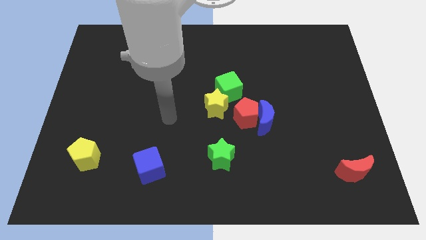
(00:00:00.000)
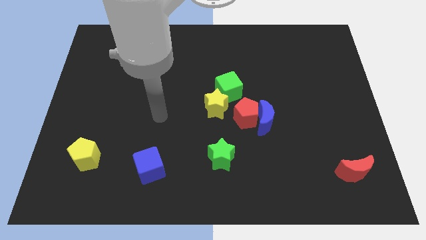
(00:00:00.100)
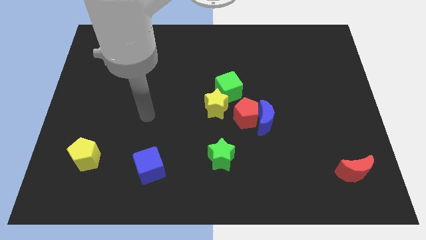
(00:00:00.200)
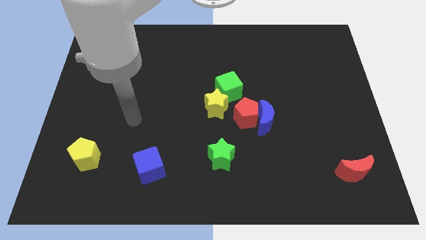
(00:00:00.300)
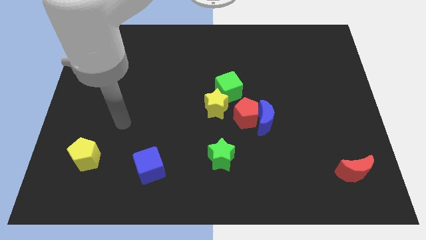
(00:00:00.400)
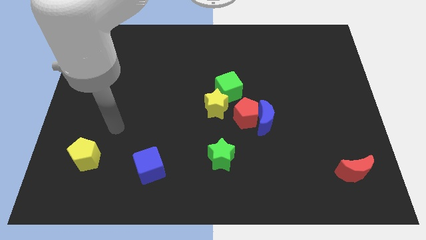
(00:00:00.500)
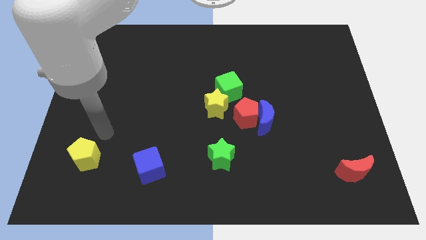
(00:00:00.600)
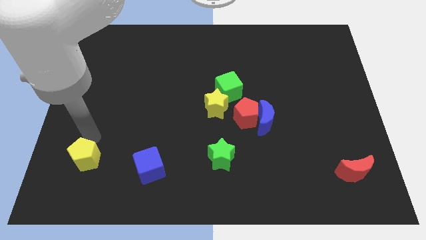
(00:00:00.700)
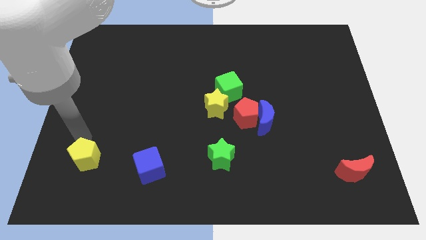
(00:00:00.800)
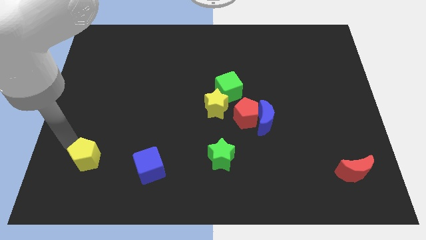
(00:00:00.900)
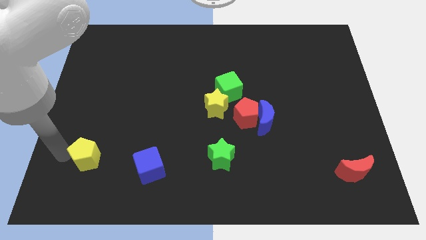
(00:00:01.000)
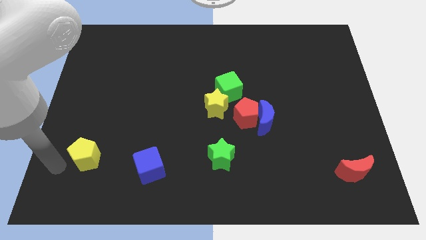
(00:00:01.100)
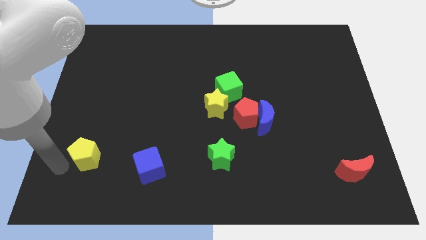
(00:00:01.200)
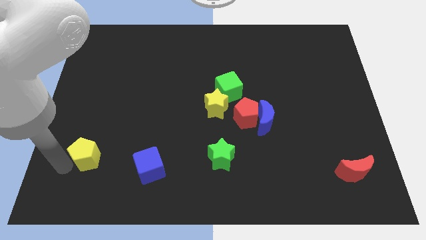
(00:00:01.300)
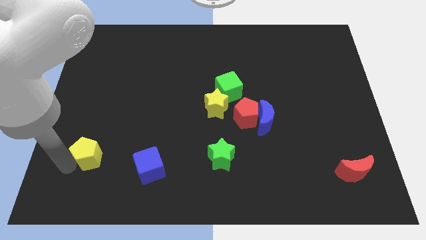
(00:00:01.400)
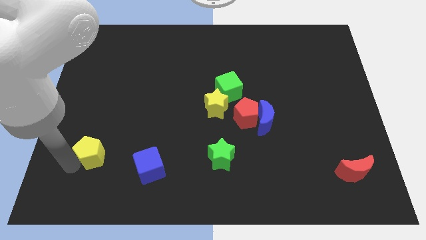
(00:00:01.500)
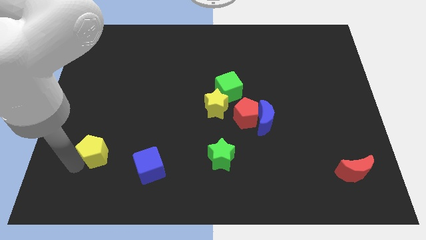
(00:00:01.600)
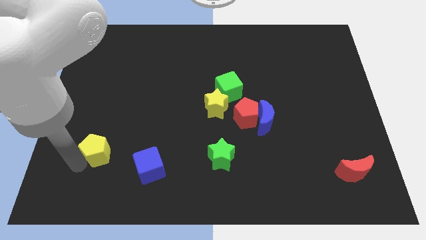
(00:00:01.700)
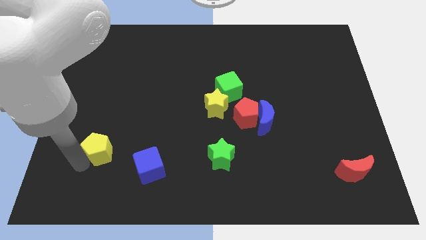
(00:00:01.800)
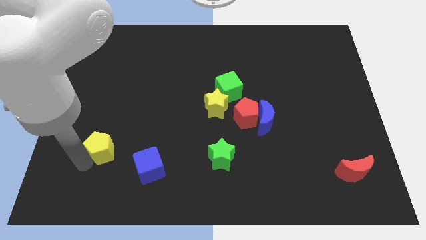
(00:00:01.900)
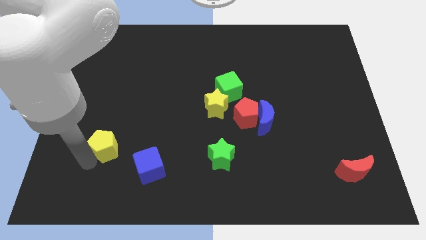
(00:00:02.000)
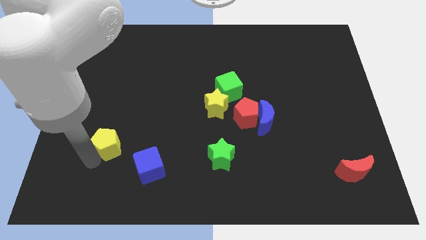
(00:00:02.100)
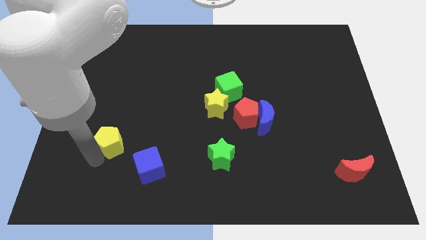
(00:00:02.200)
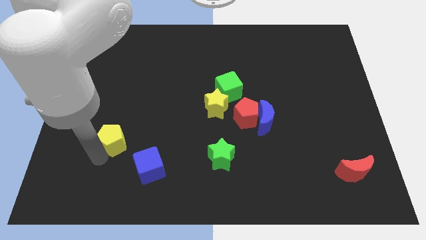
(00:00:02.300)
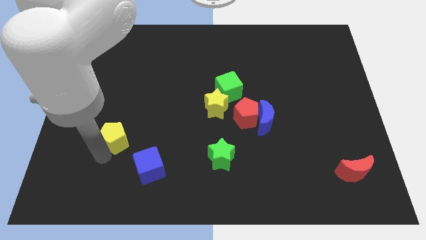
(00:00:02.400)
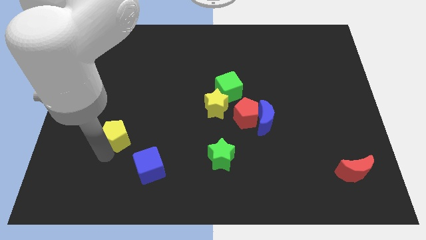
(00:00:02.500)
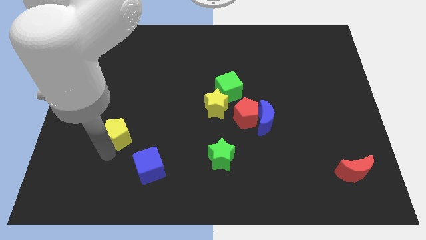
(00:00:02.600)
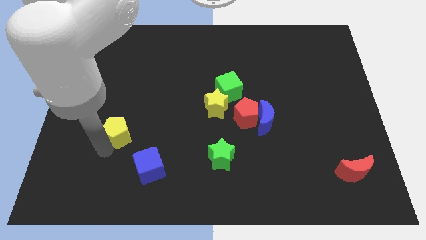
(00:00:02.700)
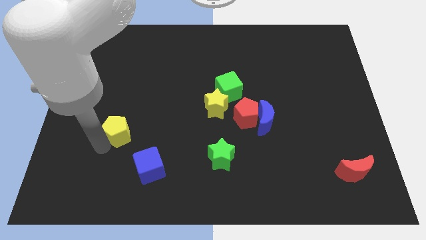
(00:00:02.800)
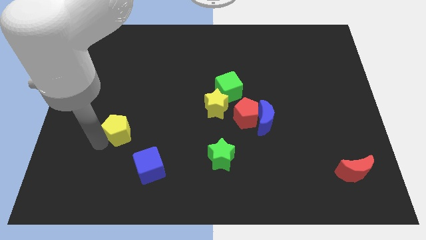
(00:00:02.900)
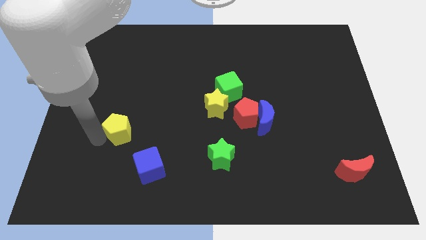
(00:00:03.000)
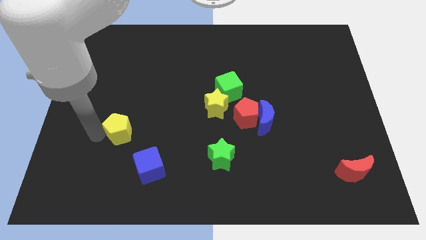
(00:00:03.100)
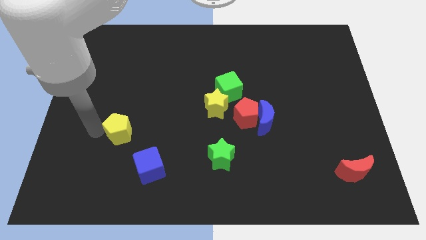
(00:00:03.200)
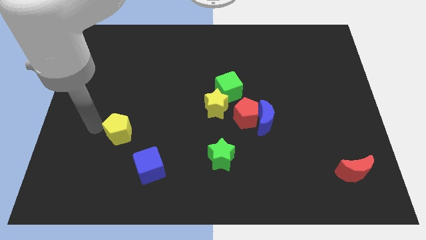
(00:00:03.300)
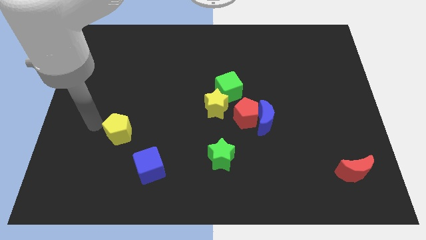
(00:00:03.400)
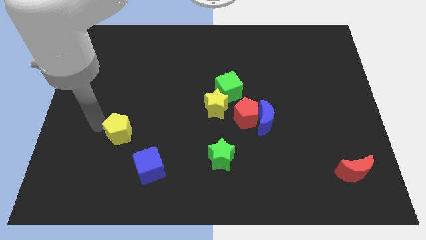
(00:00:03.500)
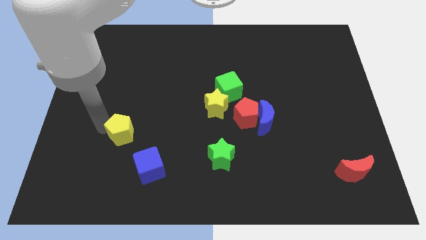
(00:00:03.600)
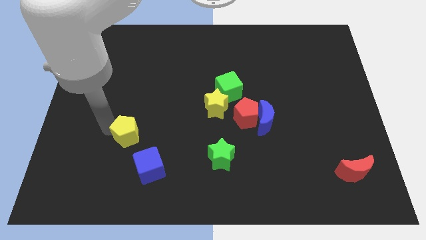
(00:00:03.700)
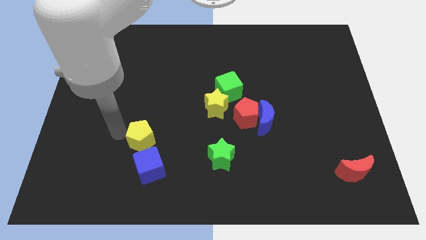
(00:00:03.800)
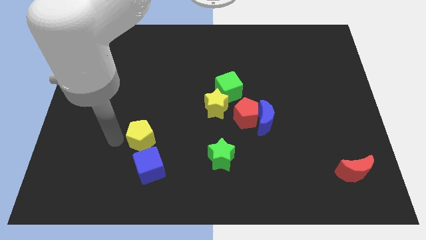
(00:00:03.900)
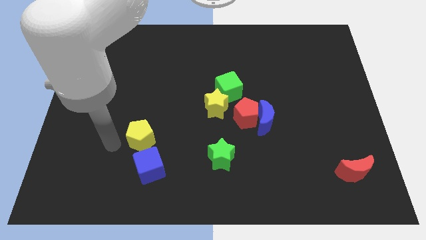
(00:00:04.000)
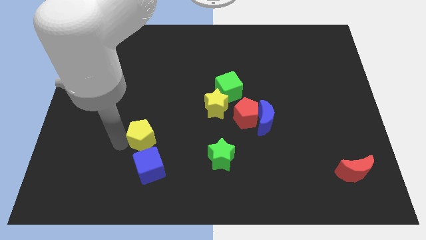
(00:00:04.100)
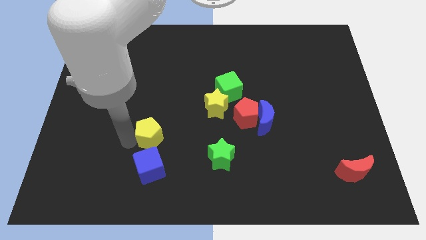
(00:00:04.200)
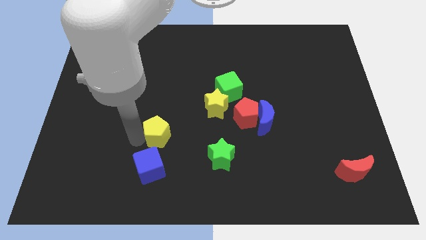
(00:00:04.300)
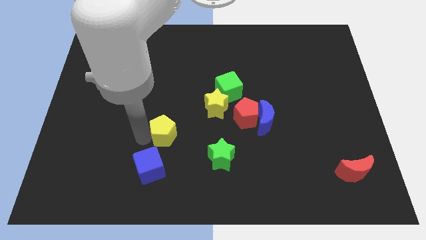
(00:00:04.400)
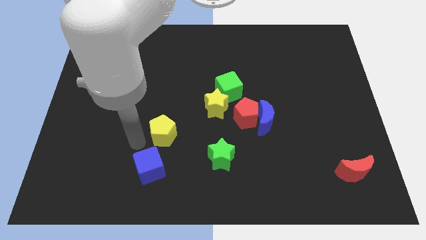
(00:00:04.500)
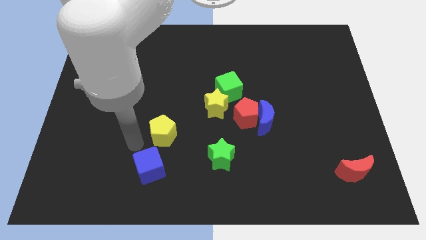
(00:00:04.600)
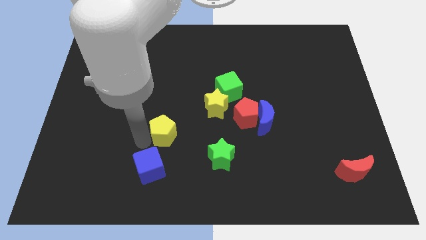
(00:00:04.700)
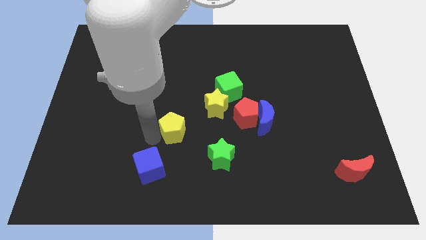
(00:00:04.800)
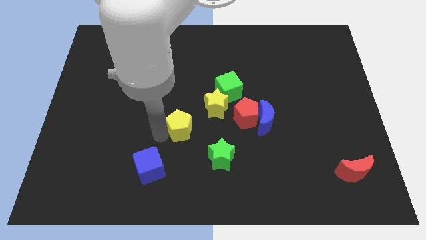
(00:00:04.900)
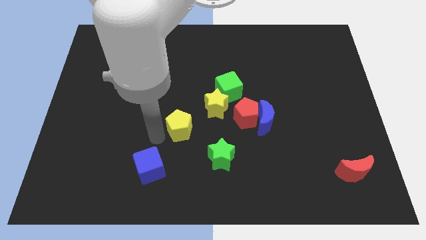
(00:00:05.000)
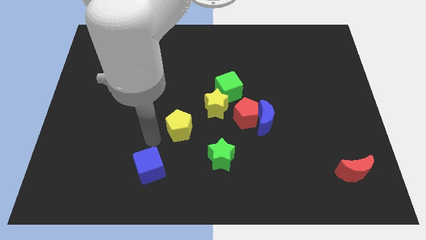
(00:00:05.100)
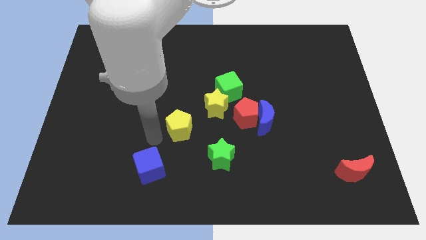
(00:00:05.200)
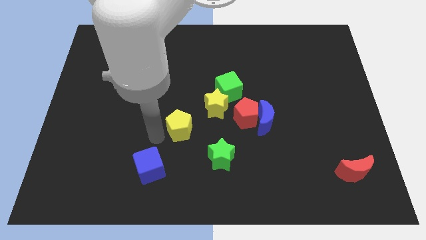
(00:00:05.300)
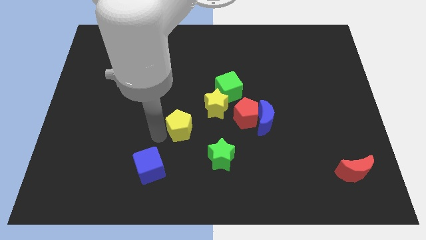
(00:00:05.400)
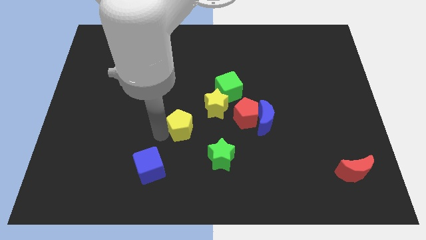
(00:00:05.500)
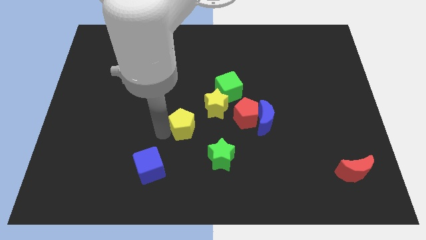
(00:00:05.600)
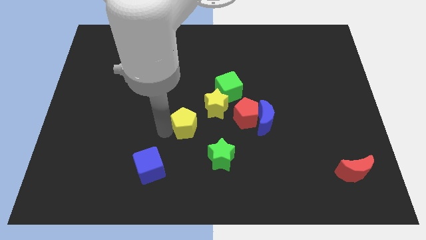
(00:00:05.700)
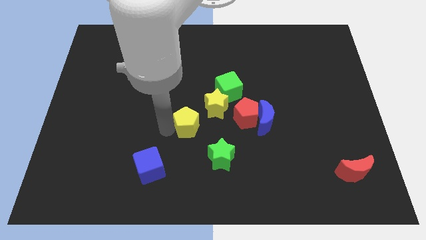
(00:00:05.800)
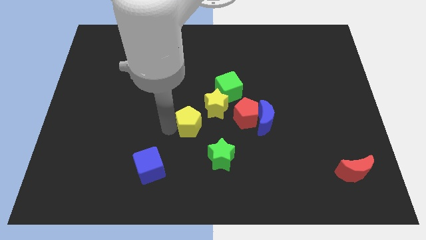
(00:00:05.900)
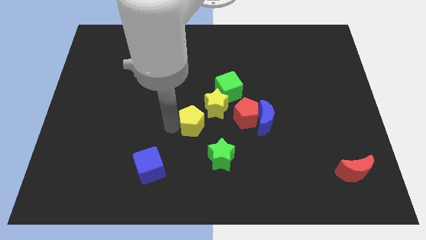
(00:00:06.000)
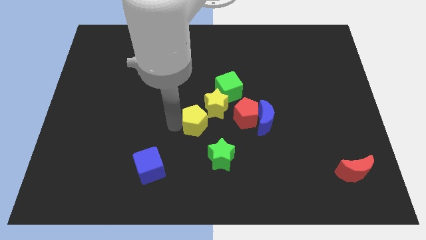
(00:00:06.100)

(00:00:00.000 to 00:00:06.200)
move the yellow pentagon left of the blue moon

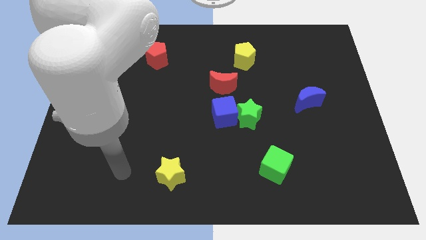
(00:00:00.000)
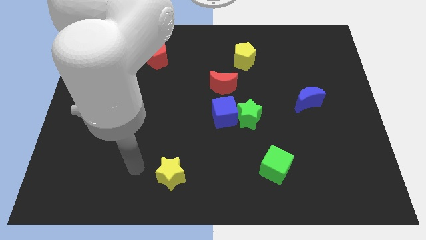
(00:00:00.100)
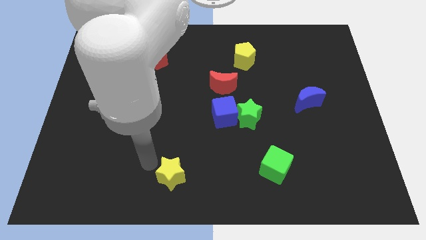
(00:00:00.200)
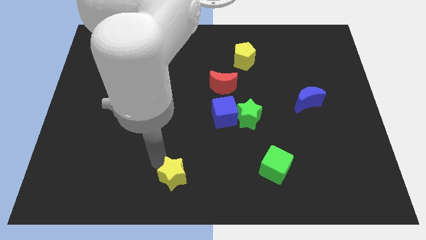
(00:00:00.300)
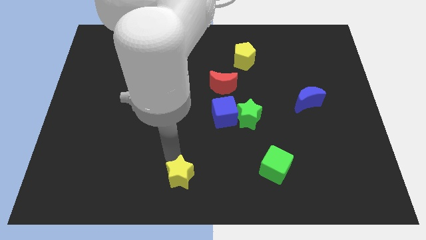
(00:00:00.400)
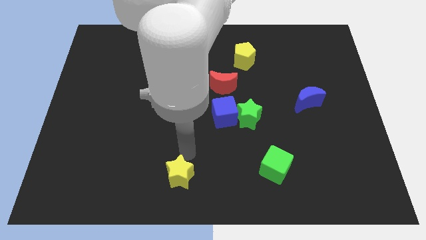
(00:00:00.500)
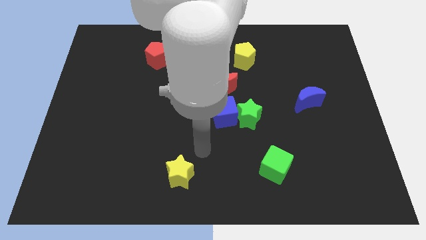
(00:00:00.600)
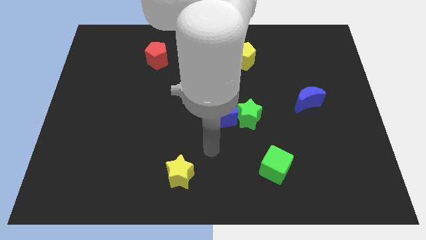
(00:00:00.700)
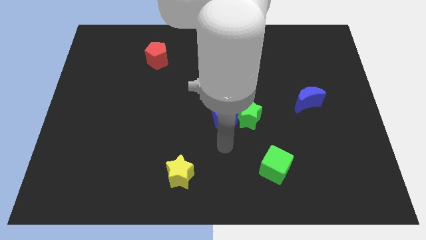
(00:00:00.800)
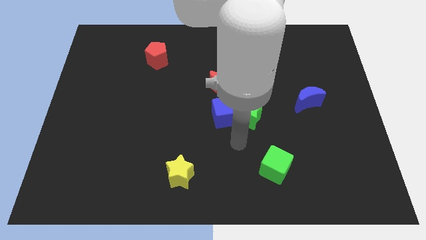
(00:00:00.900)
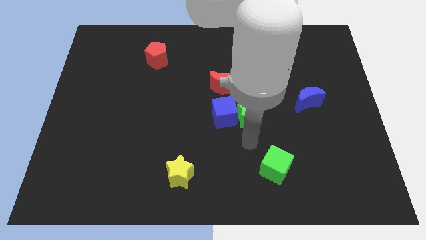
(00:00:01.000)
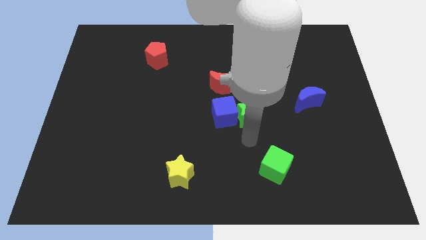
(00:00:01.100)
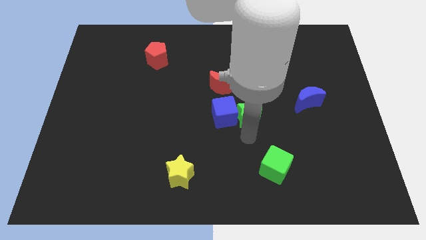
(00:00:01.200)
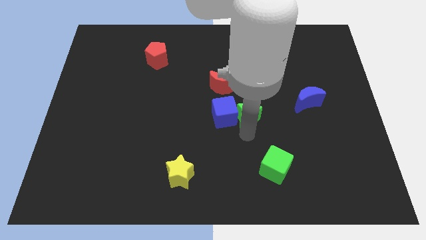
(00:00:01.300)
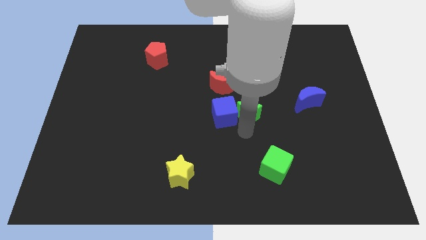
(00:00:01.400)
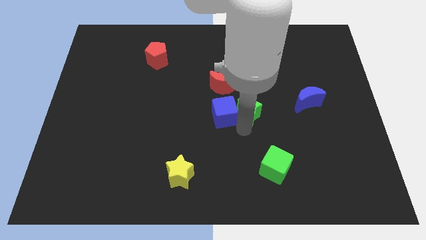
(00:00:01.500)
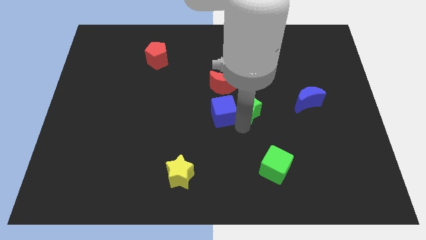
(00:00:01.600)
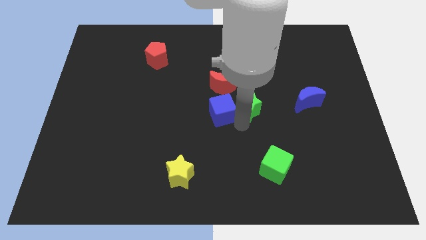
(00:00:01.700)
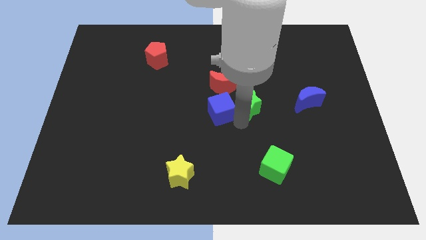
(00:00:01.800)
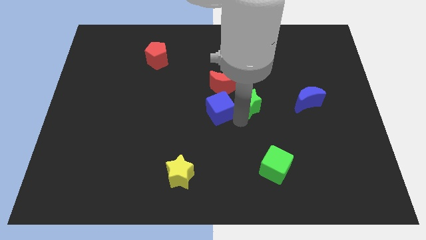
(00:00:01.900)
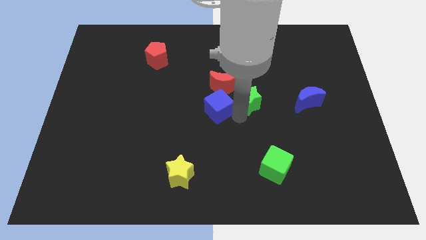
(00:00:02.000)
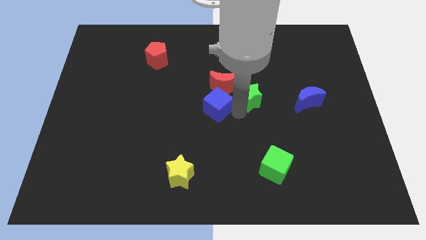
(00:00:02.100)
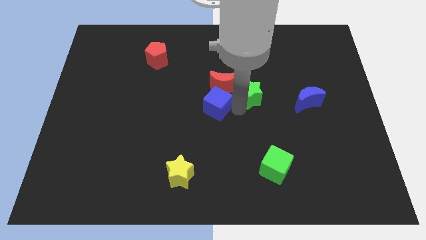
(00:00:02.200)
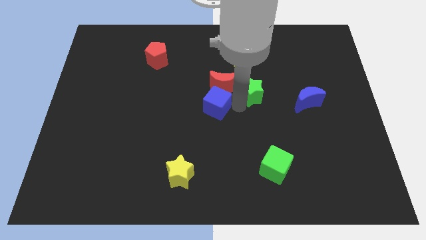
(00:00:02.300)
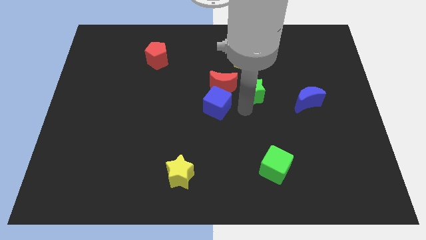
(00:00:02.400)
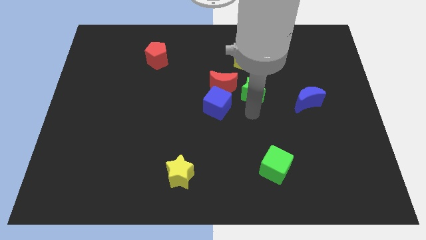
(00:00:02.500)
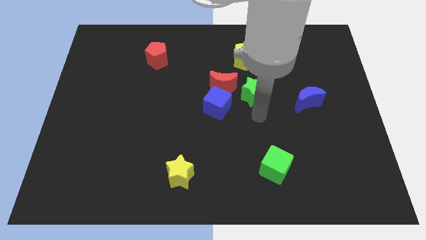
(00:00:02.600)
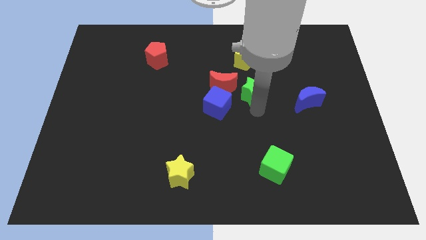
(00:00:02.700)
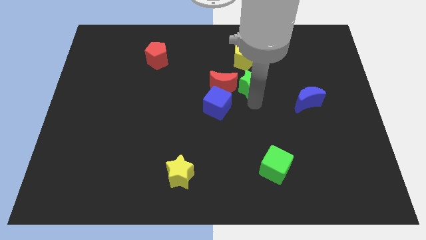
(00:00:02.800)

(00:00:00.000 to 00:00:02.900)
move the green star to the top right of the red moon
